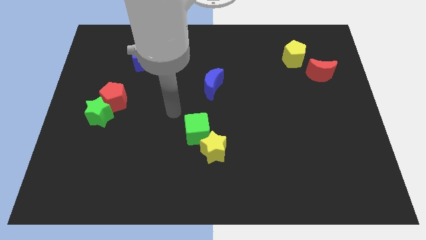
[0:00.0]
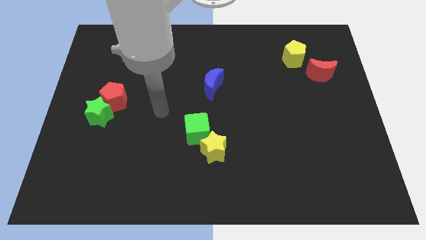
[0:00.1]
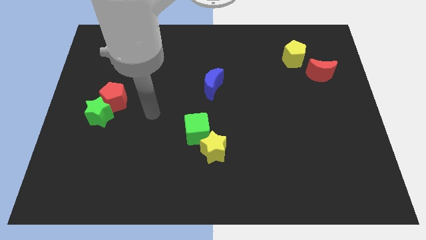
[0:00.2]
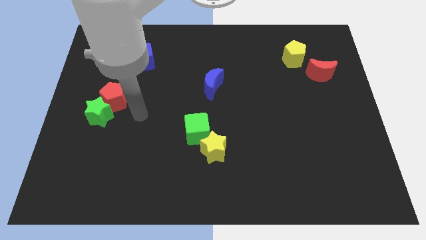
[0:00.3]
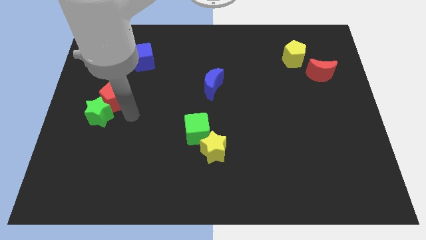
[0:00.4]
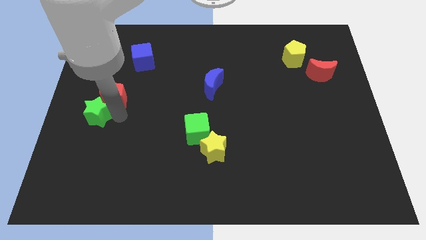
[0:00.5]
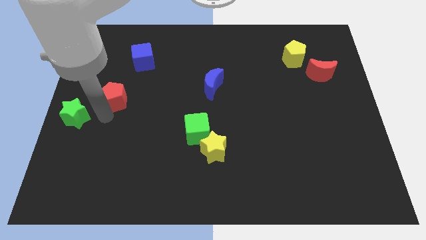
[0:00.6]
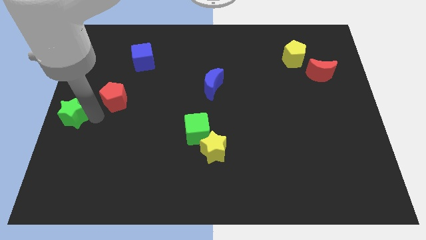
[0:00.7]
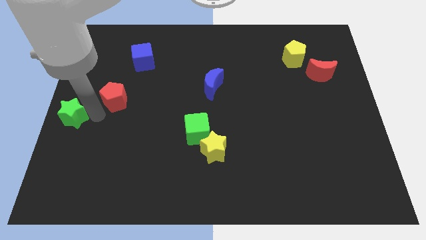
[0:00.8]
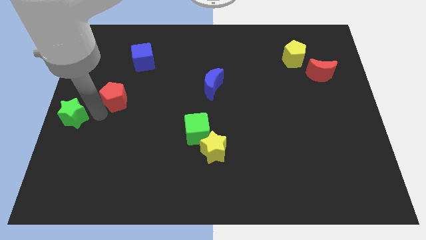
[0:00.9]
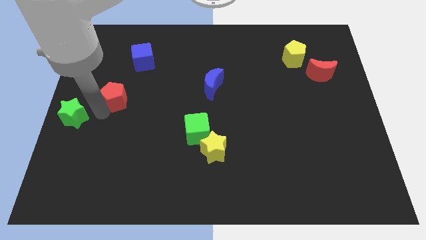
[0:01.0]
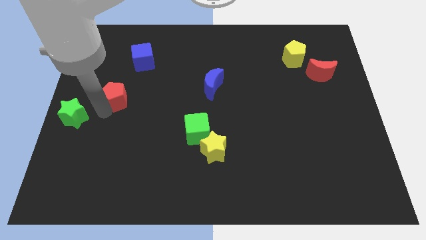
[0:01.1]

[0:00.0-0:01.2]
separate the red pentagon from the green star

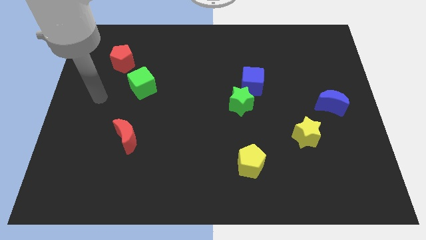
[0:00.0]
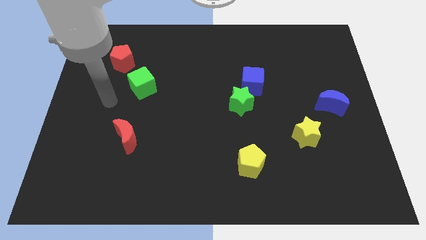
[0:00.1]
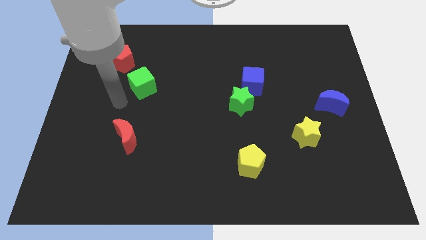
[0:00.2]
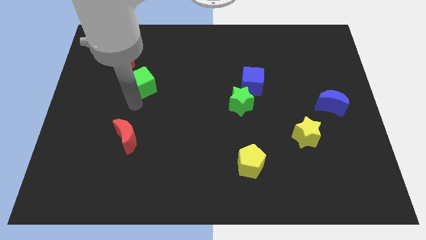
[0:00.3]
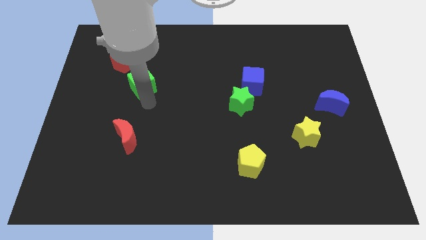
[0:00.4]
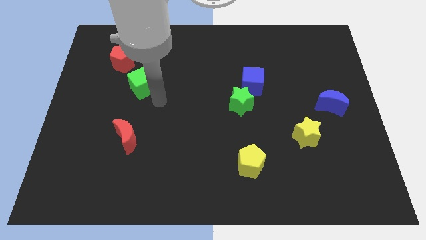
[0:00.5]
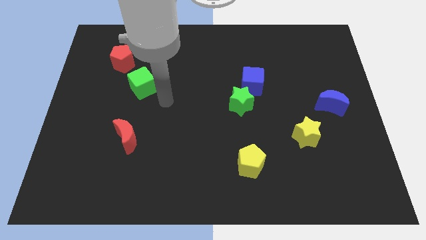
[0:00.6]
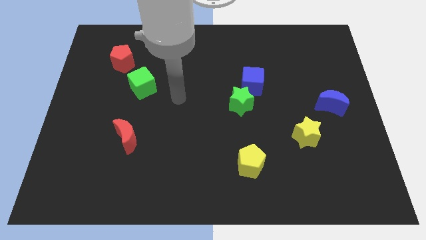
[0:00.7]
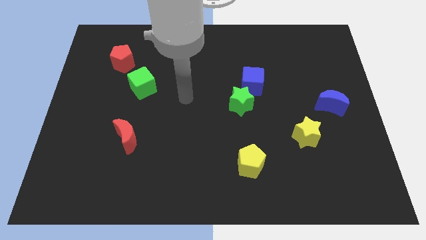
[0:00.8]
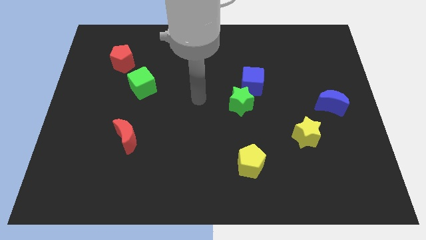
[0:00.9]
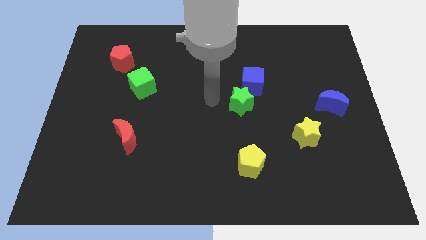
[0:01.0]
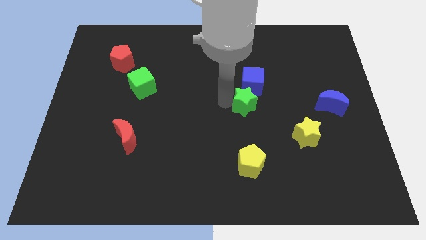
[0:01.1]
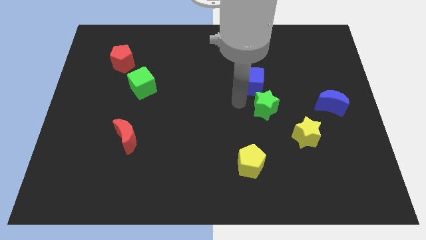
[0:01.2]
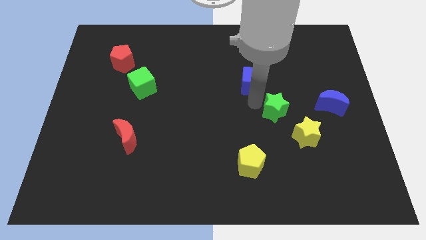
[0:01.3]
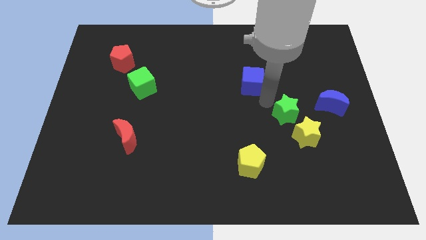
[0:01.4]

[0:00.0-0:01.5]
separate the blue cube from the green star

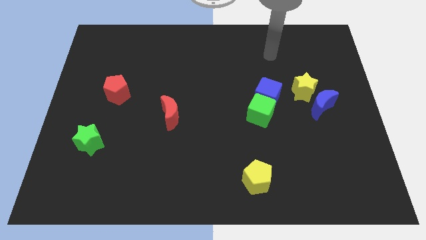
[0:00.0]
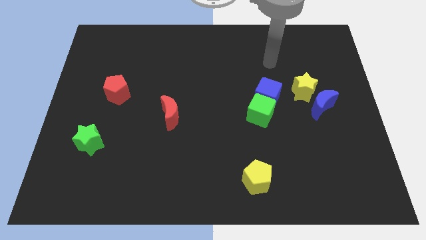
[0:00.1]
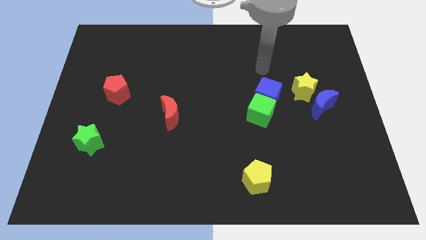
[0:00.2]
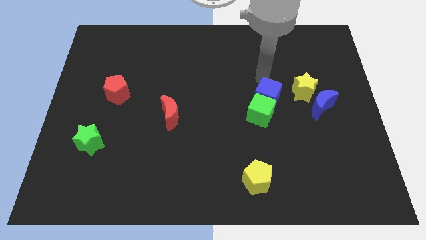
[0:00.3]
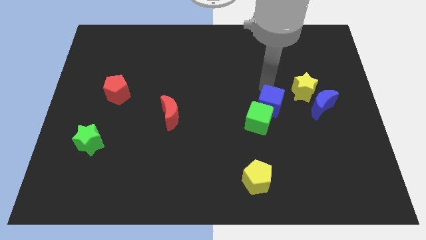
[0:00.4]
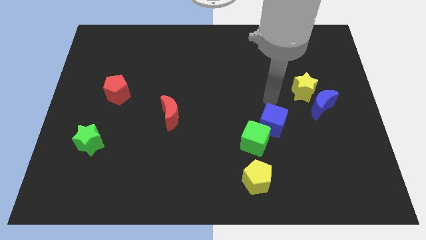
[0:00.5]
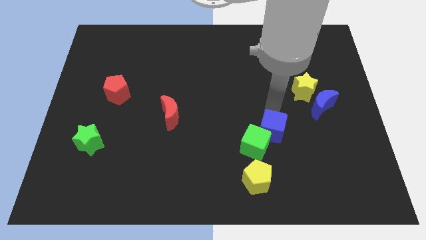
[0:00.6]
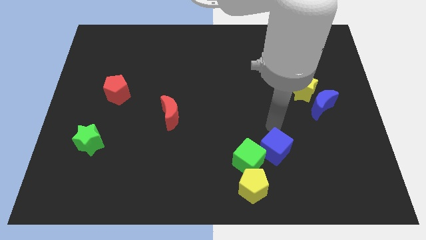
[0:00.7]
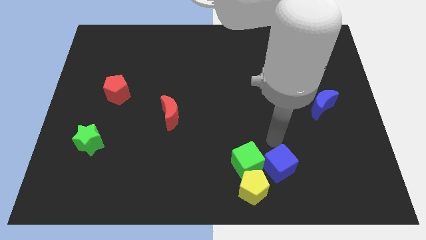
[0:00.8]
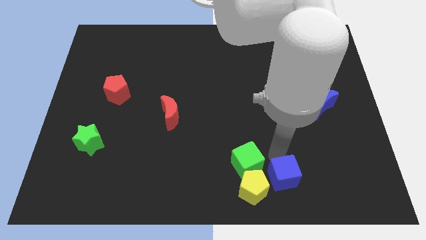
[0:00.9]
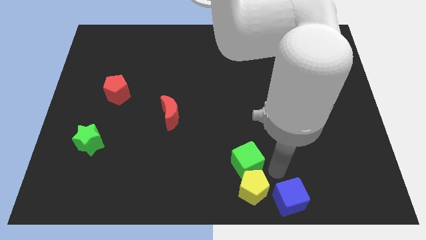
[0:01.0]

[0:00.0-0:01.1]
separate the green cube from the blue cube

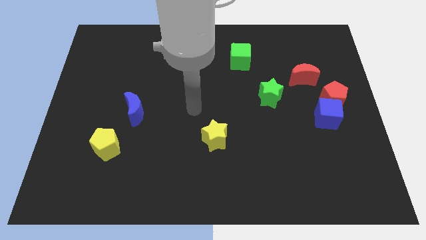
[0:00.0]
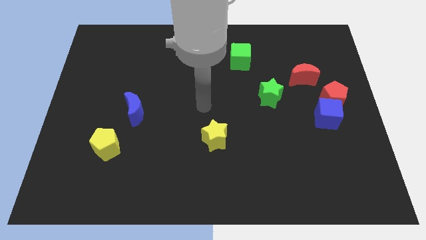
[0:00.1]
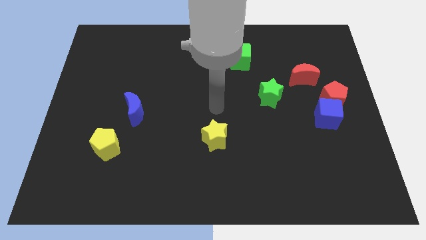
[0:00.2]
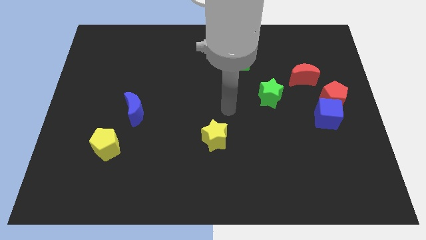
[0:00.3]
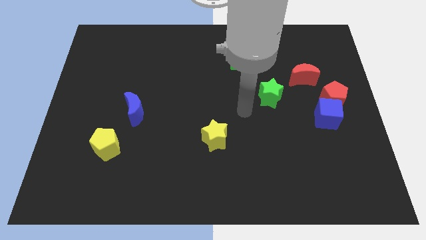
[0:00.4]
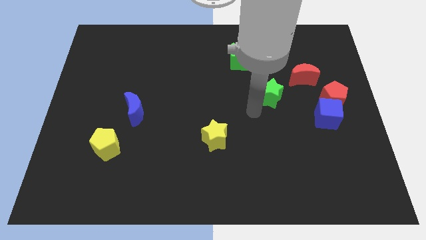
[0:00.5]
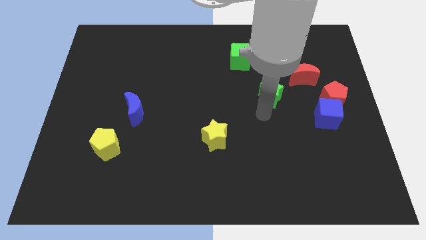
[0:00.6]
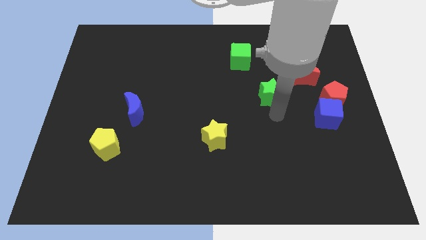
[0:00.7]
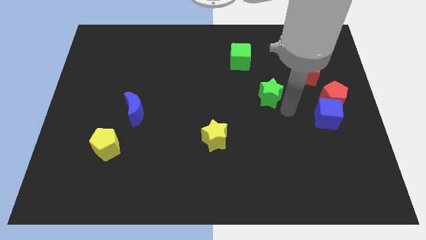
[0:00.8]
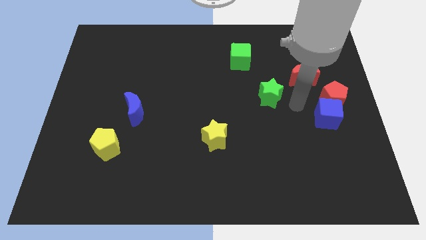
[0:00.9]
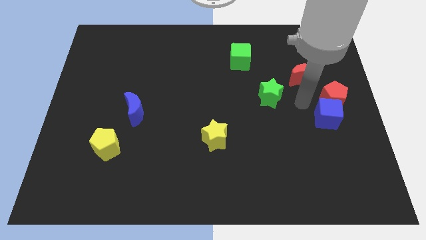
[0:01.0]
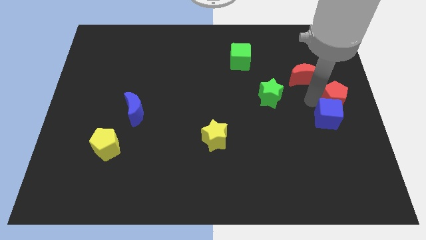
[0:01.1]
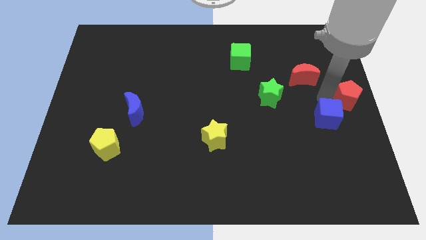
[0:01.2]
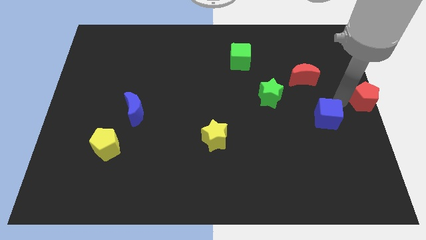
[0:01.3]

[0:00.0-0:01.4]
separate the blue cube from the red pentagon

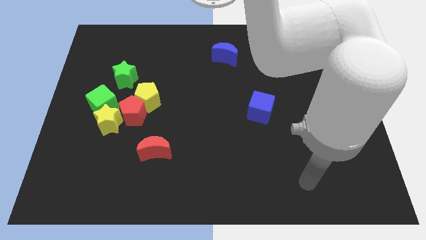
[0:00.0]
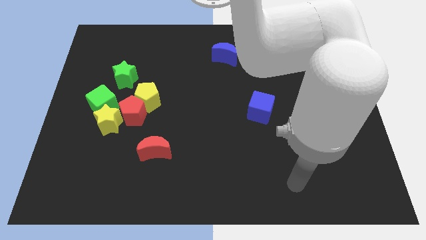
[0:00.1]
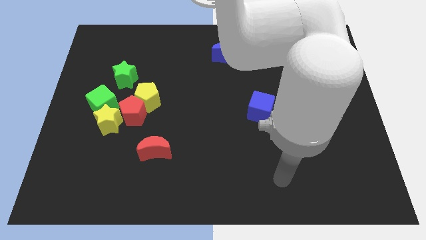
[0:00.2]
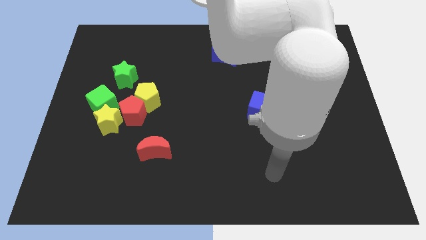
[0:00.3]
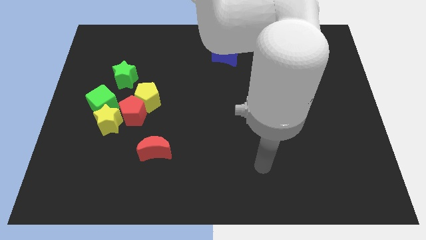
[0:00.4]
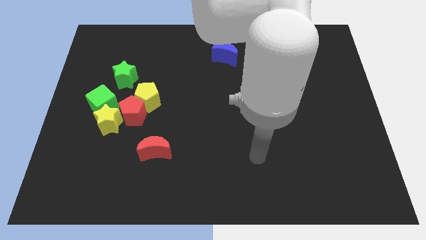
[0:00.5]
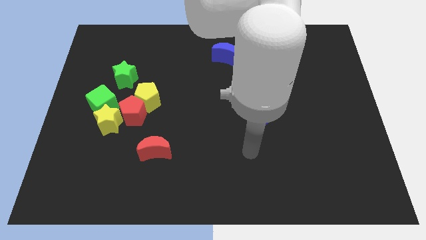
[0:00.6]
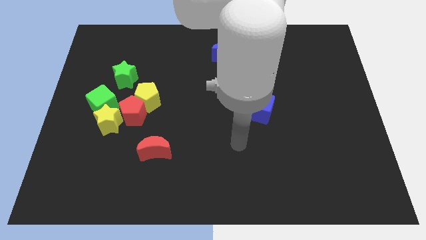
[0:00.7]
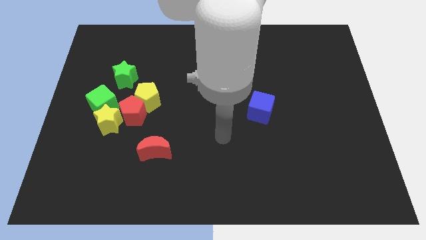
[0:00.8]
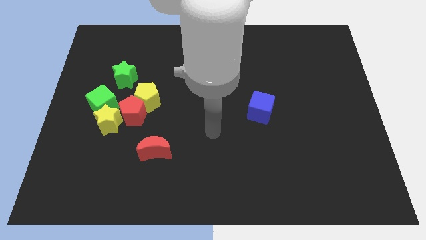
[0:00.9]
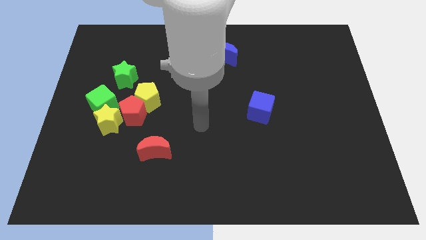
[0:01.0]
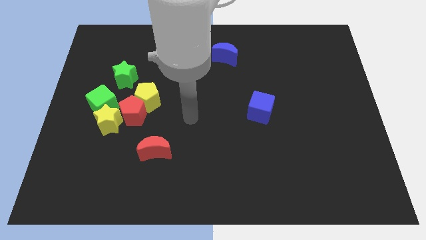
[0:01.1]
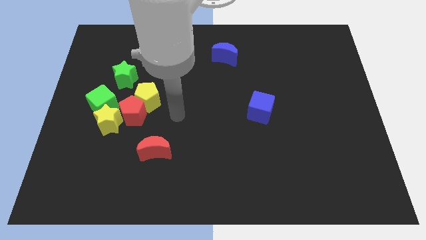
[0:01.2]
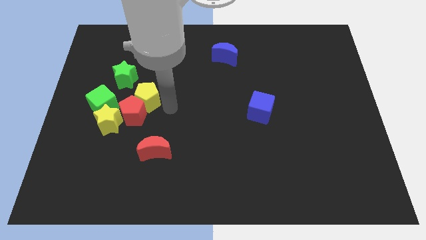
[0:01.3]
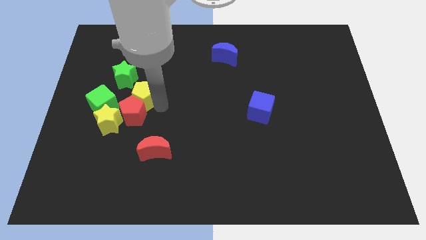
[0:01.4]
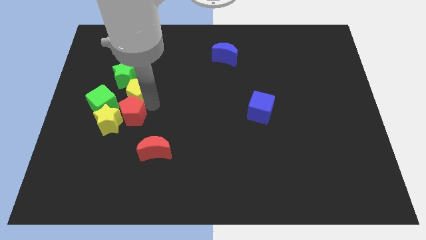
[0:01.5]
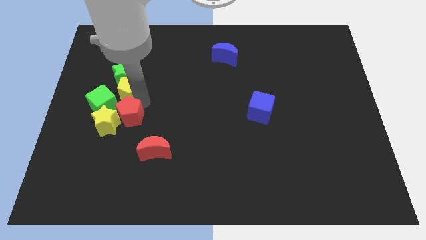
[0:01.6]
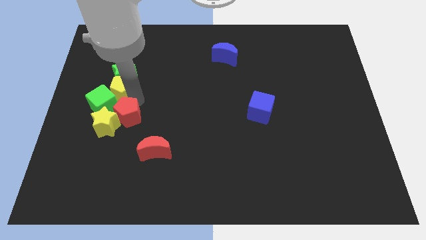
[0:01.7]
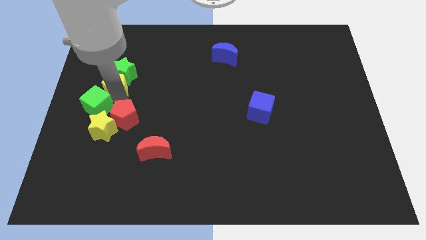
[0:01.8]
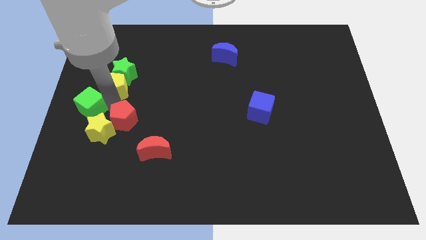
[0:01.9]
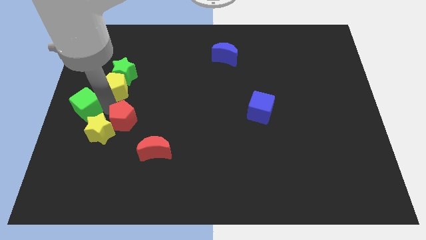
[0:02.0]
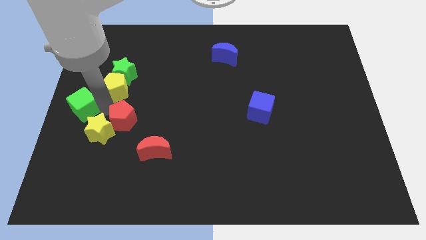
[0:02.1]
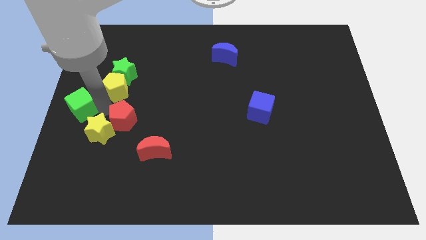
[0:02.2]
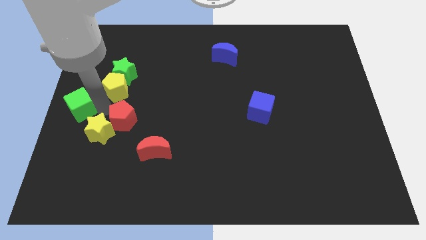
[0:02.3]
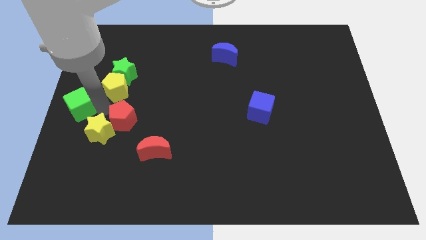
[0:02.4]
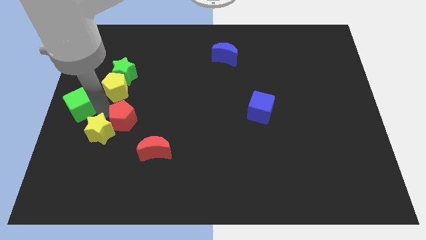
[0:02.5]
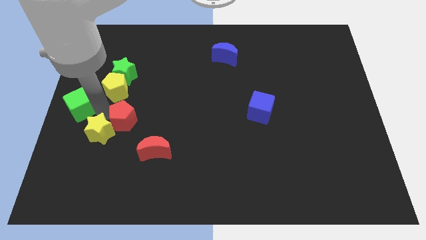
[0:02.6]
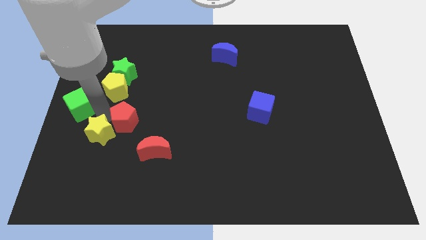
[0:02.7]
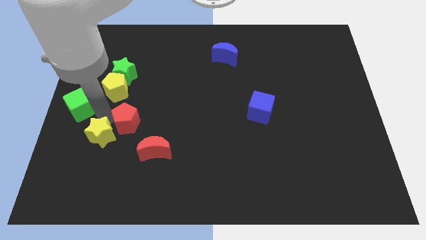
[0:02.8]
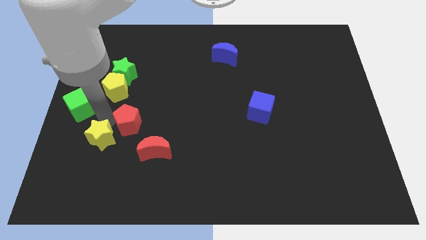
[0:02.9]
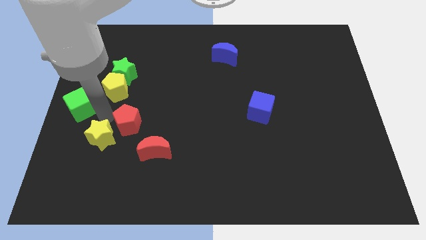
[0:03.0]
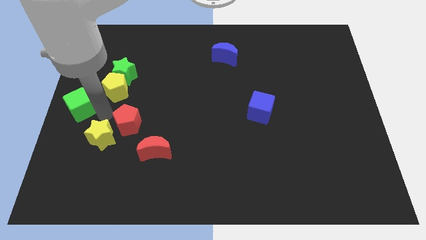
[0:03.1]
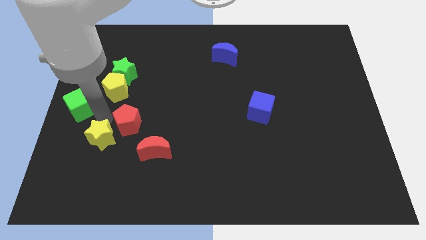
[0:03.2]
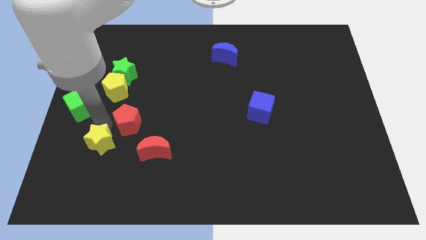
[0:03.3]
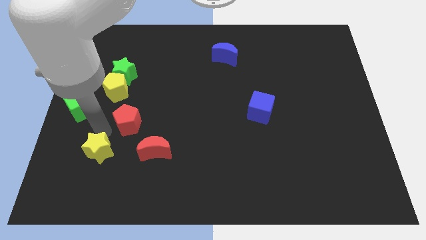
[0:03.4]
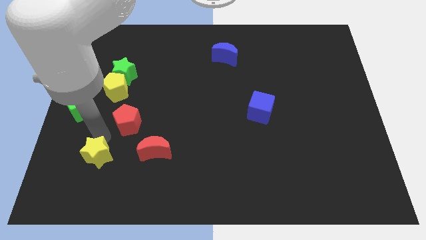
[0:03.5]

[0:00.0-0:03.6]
move the yellow star away from the red pentagon and green cube

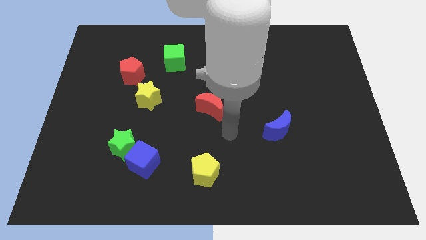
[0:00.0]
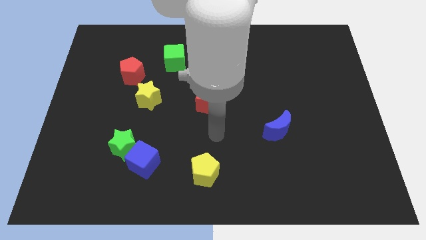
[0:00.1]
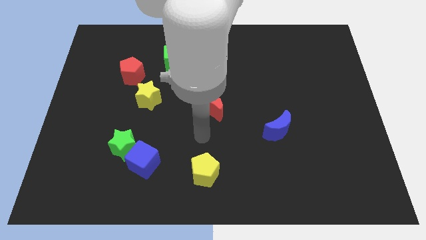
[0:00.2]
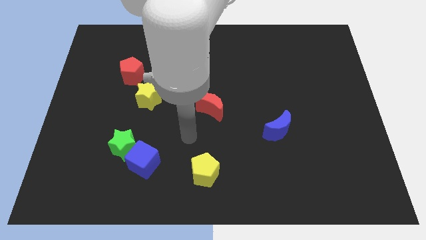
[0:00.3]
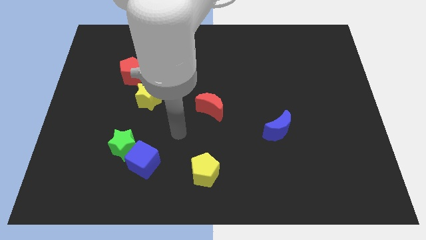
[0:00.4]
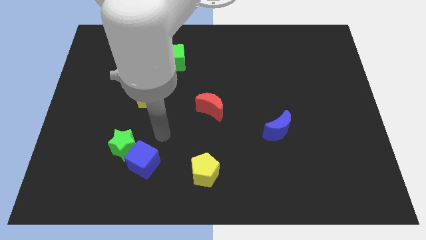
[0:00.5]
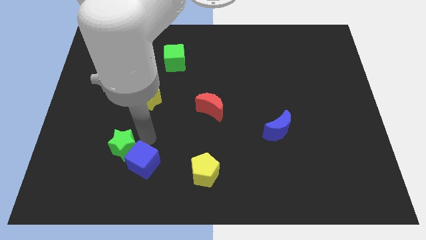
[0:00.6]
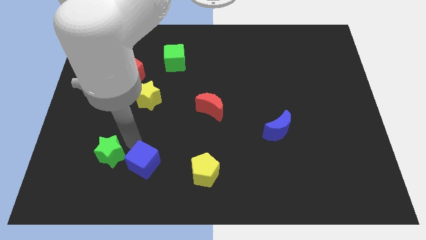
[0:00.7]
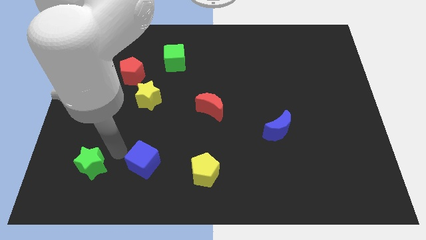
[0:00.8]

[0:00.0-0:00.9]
move the blue cube away from the green star
